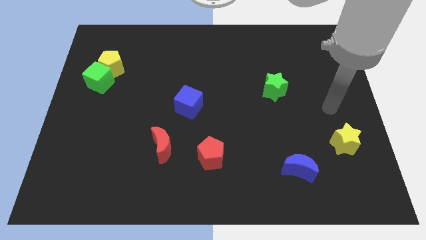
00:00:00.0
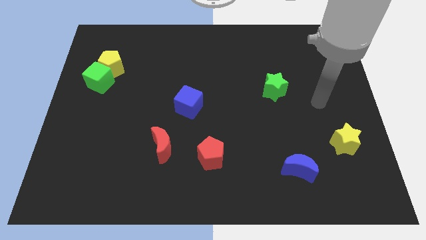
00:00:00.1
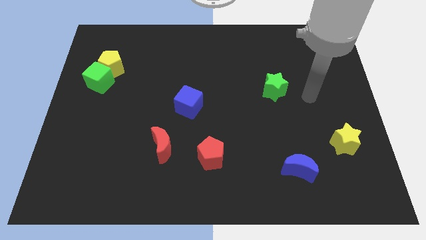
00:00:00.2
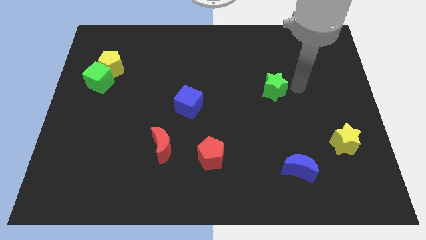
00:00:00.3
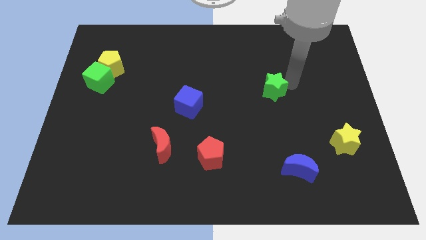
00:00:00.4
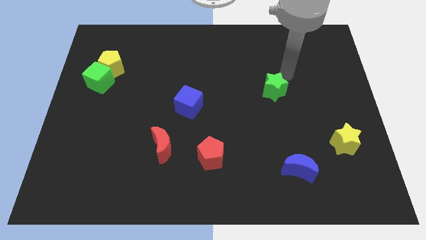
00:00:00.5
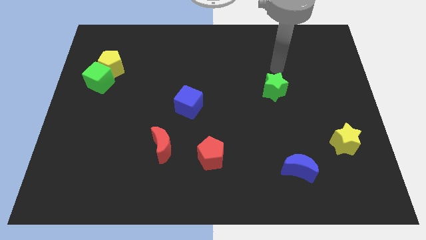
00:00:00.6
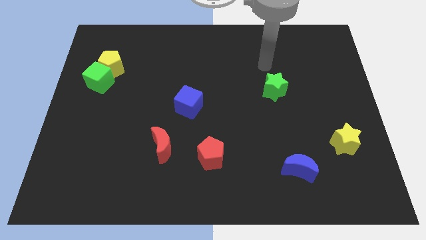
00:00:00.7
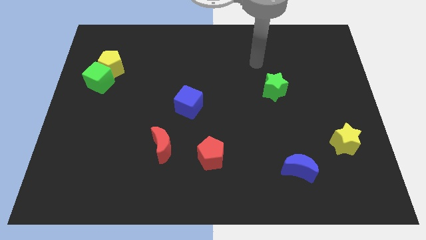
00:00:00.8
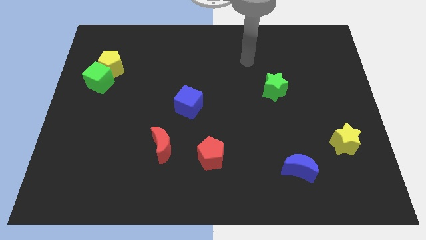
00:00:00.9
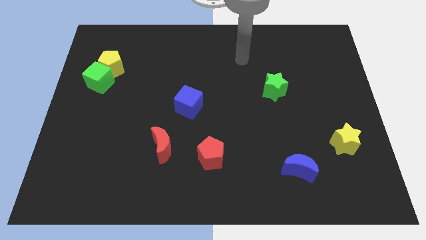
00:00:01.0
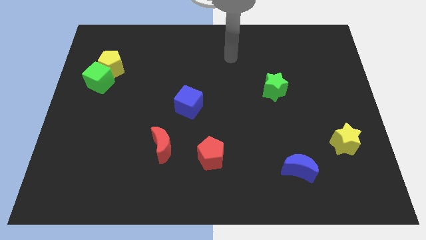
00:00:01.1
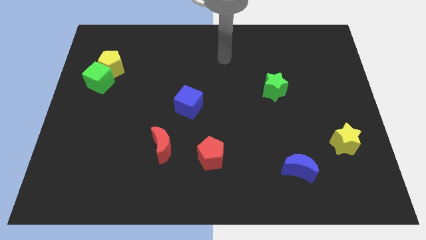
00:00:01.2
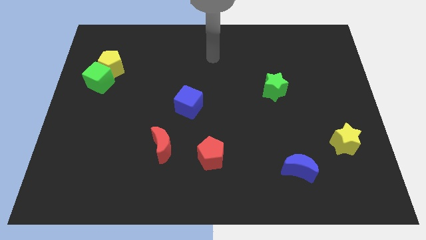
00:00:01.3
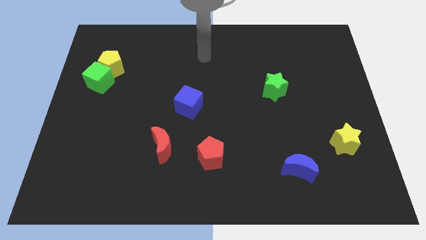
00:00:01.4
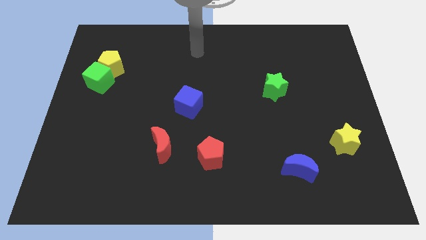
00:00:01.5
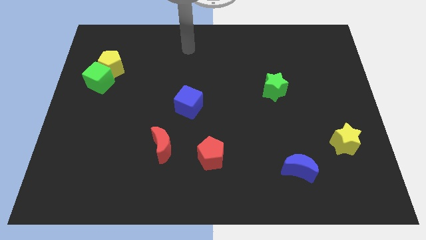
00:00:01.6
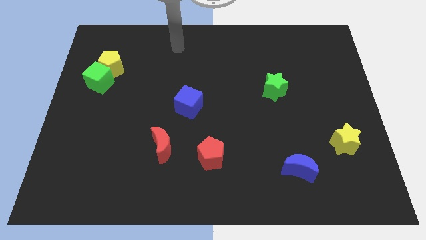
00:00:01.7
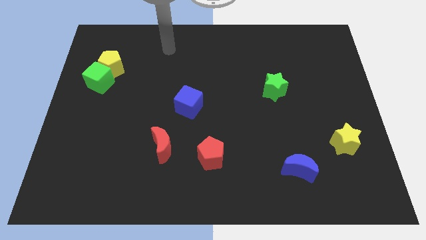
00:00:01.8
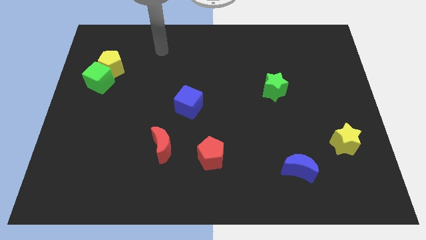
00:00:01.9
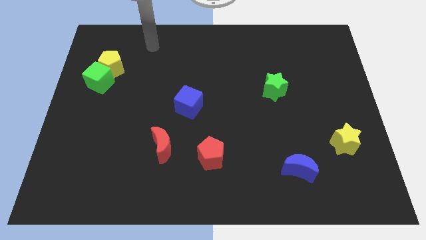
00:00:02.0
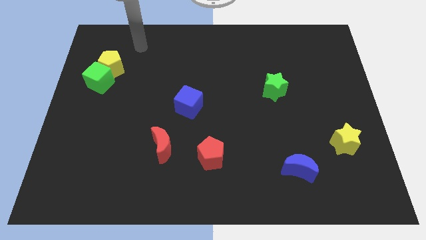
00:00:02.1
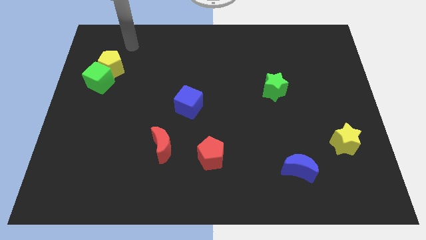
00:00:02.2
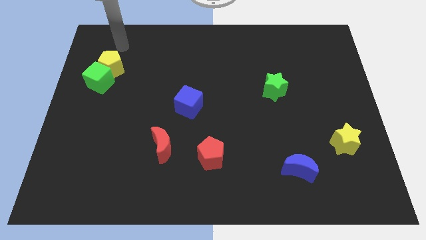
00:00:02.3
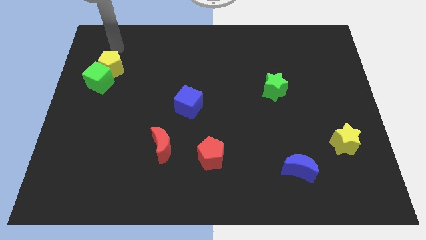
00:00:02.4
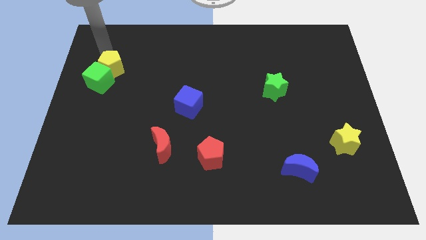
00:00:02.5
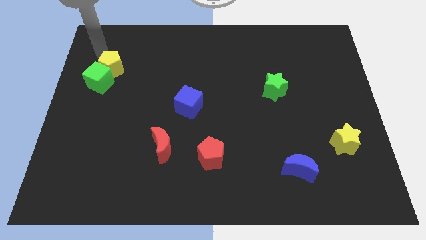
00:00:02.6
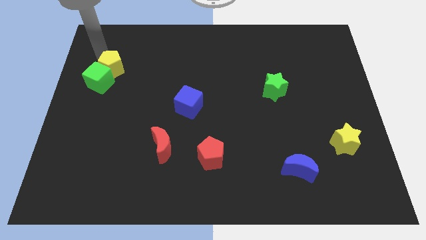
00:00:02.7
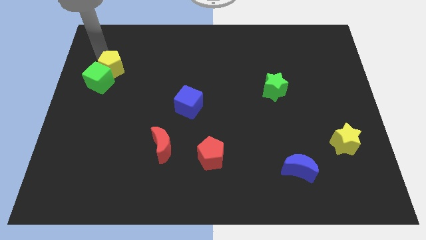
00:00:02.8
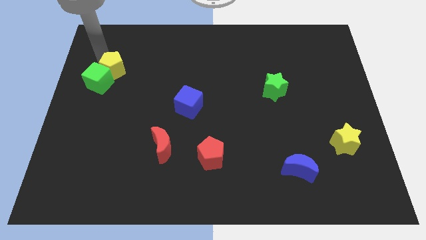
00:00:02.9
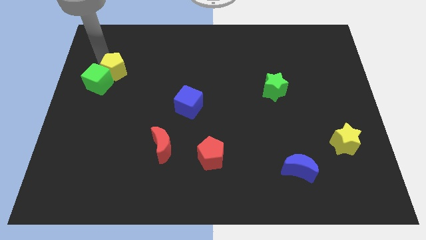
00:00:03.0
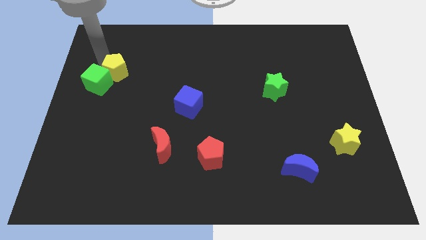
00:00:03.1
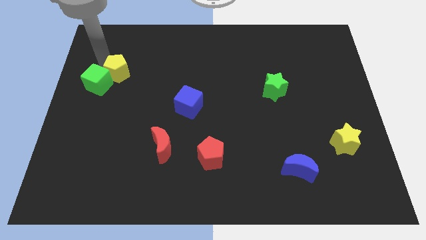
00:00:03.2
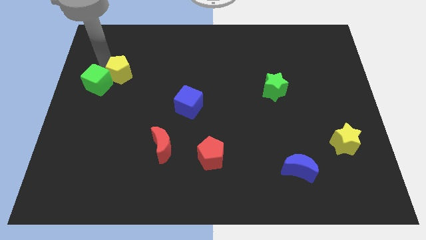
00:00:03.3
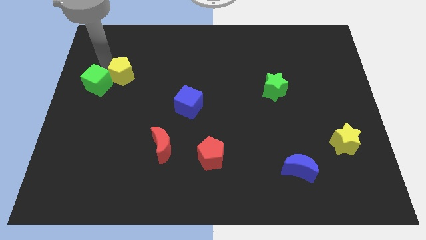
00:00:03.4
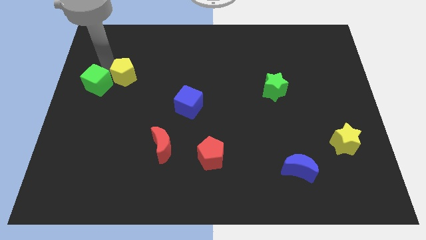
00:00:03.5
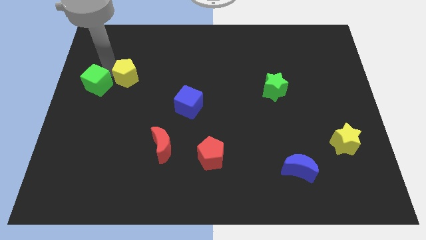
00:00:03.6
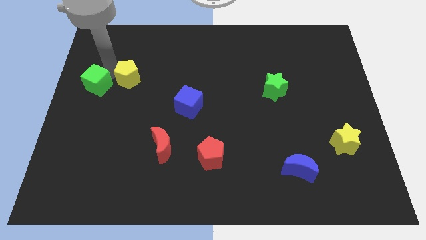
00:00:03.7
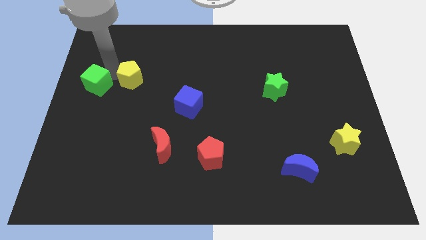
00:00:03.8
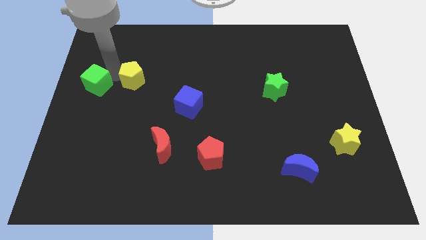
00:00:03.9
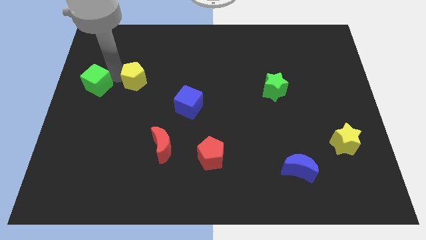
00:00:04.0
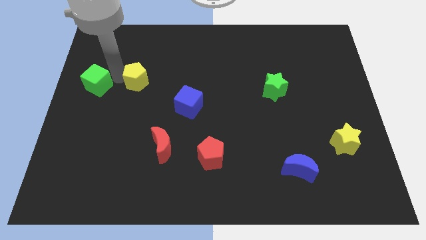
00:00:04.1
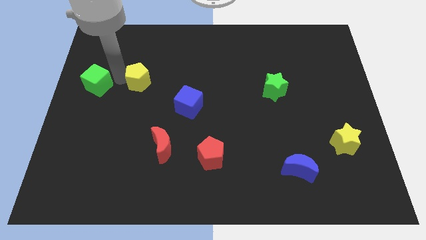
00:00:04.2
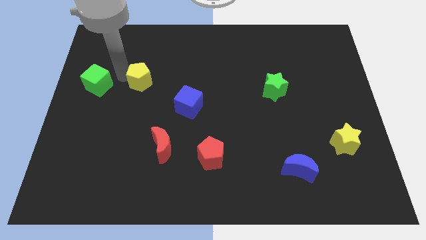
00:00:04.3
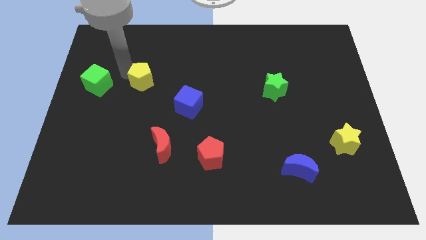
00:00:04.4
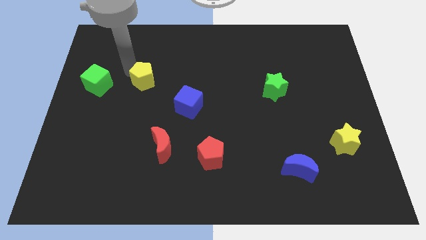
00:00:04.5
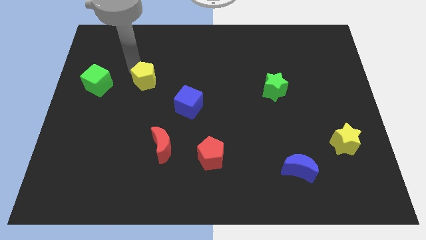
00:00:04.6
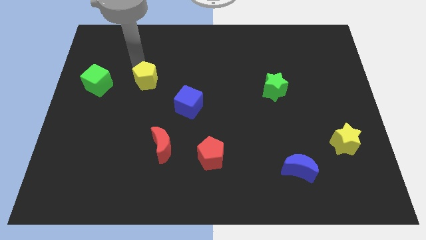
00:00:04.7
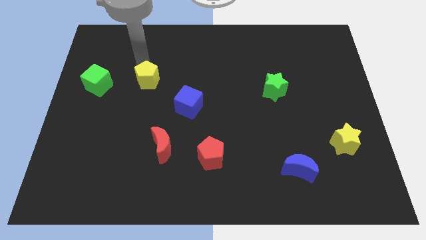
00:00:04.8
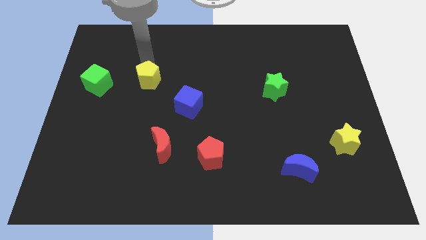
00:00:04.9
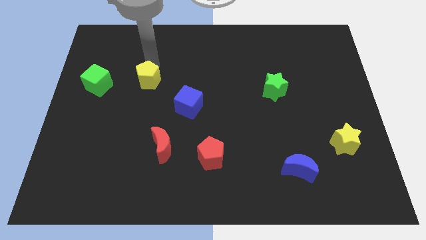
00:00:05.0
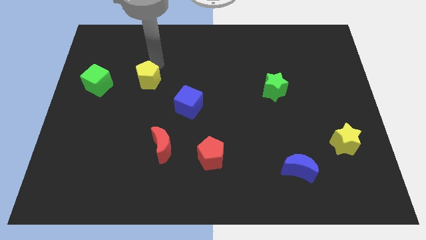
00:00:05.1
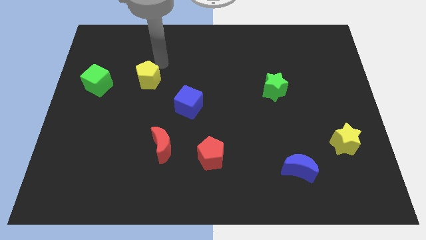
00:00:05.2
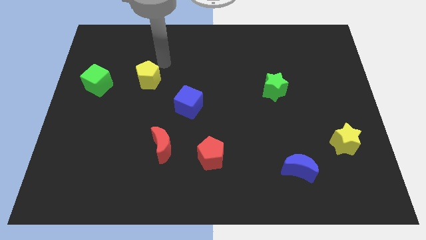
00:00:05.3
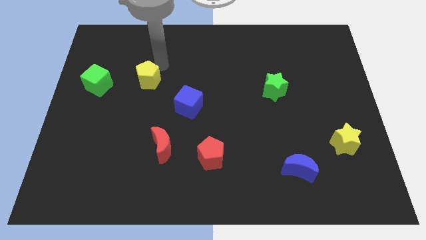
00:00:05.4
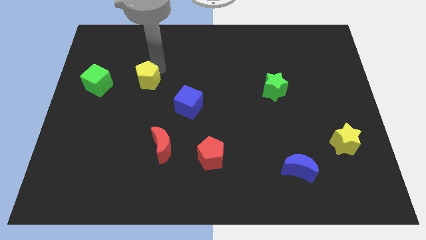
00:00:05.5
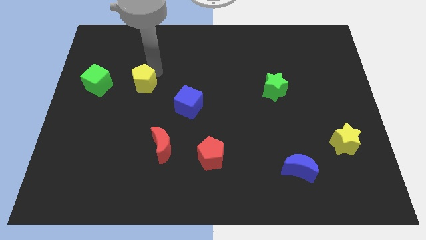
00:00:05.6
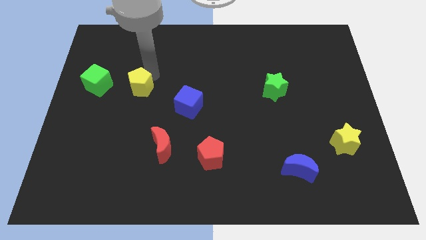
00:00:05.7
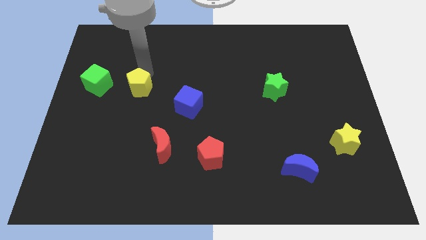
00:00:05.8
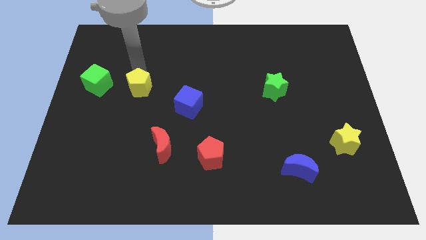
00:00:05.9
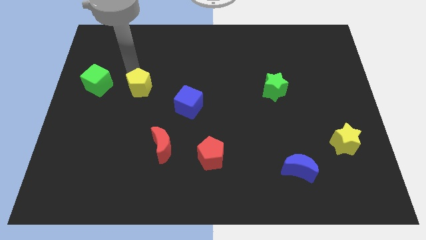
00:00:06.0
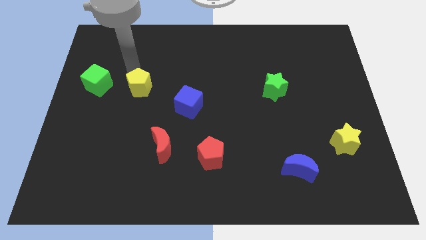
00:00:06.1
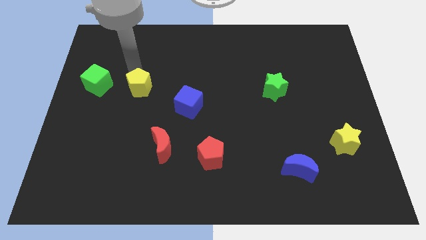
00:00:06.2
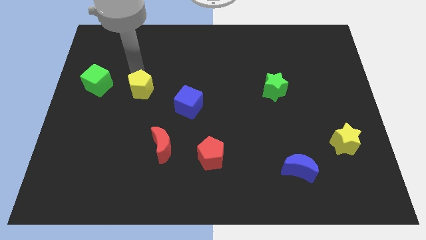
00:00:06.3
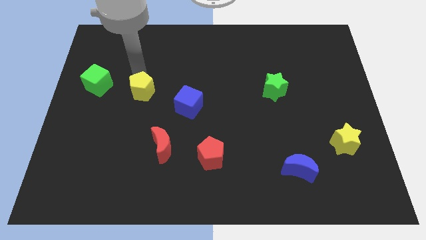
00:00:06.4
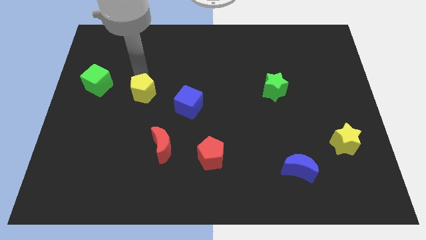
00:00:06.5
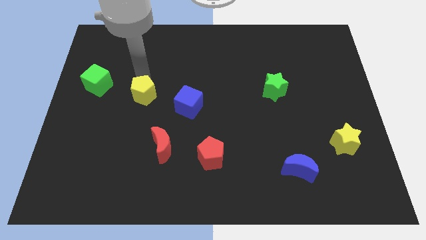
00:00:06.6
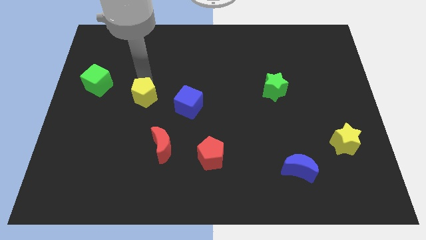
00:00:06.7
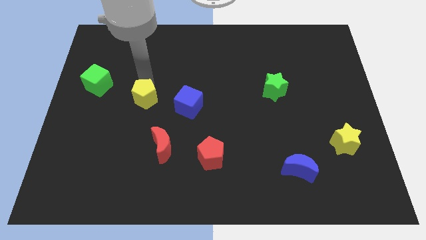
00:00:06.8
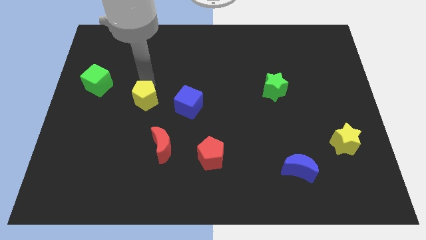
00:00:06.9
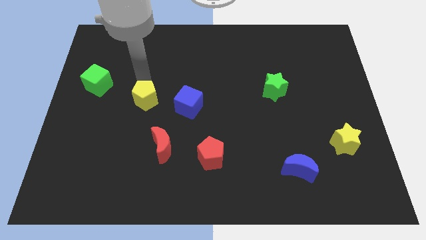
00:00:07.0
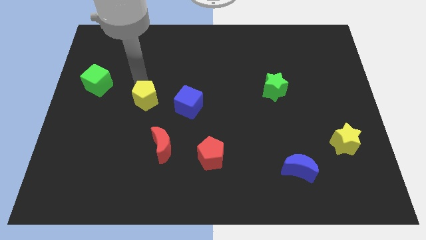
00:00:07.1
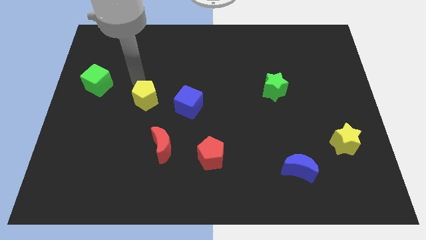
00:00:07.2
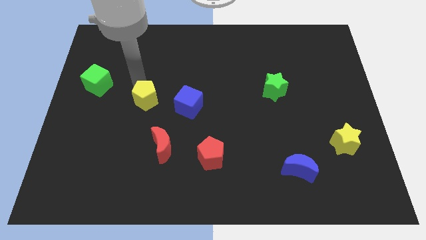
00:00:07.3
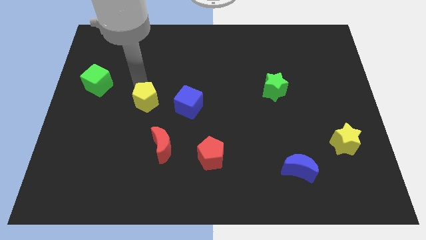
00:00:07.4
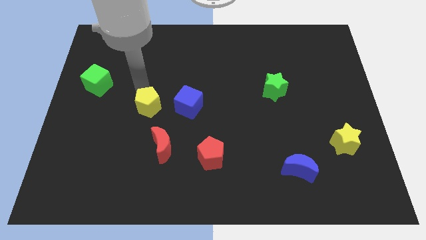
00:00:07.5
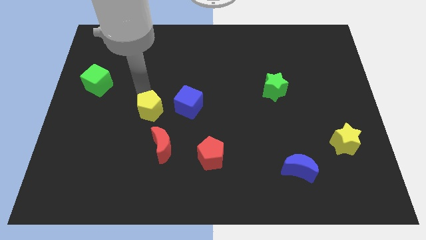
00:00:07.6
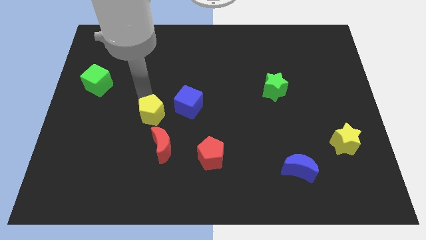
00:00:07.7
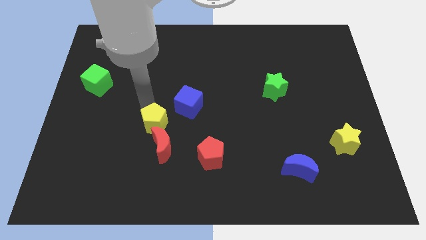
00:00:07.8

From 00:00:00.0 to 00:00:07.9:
move the yellow pentagon down and to the right diagonally
